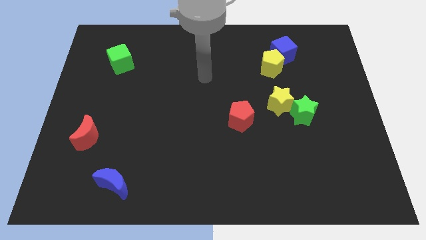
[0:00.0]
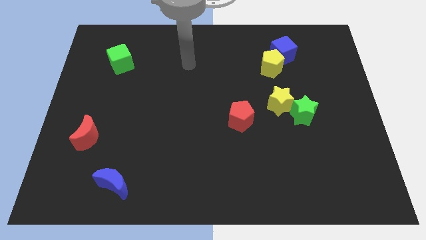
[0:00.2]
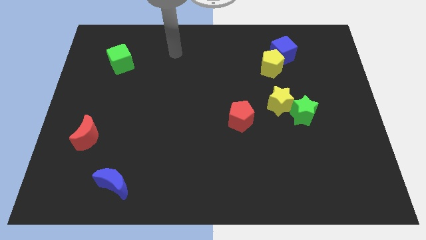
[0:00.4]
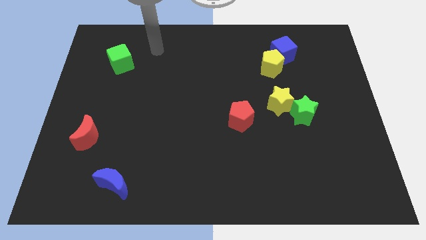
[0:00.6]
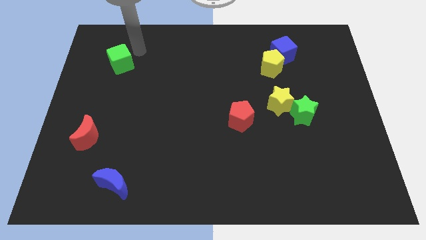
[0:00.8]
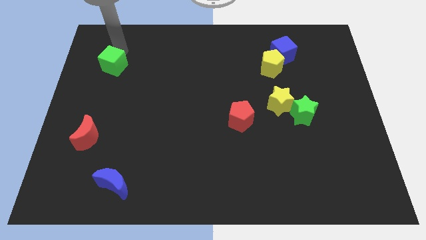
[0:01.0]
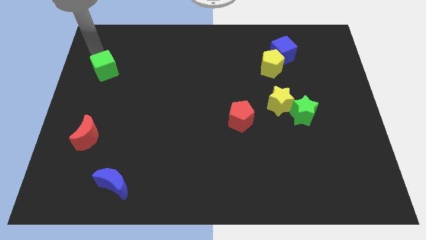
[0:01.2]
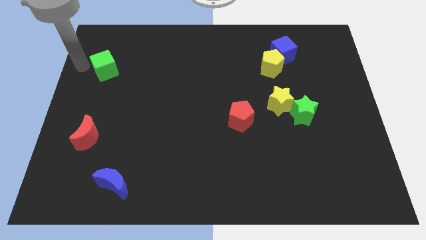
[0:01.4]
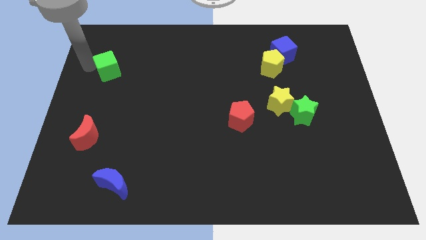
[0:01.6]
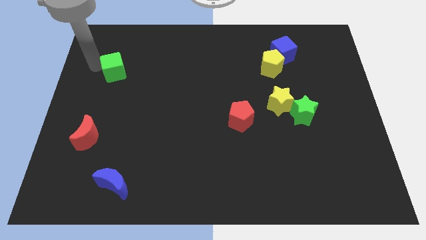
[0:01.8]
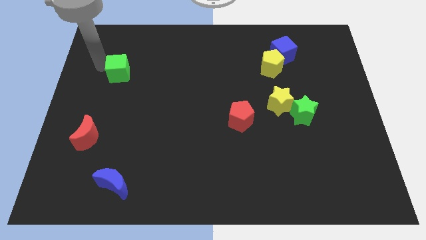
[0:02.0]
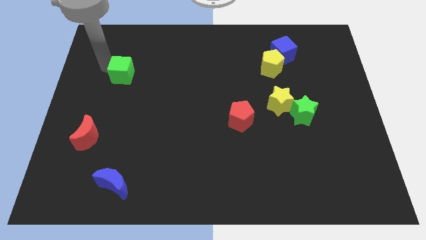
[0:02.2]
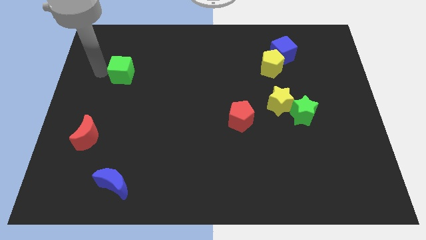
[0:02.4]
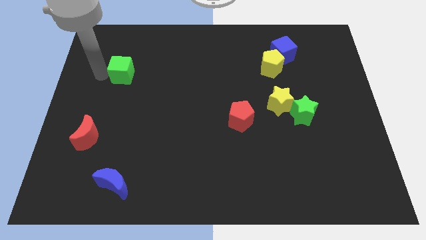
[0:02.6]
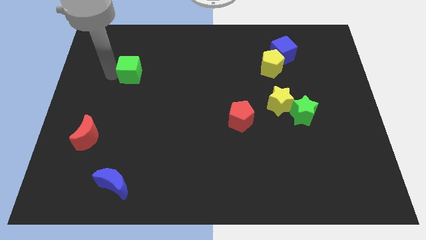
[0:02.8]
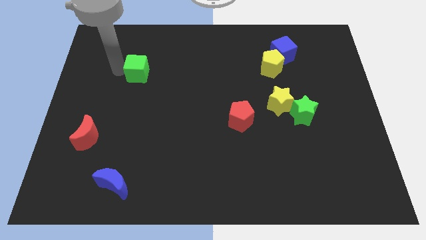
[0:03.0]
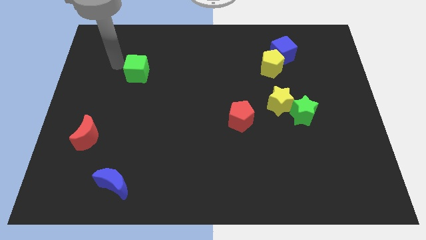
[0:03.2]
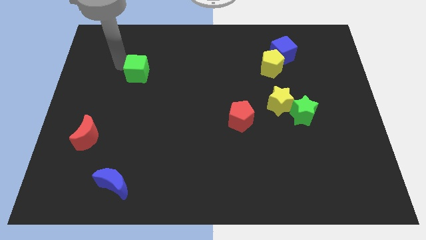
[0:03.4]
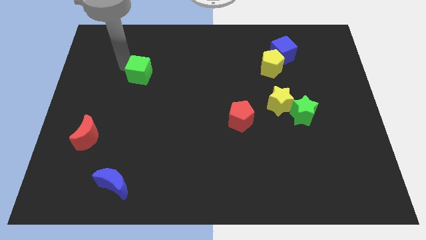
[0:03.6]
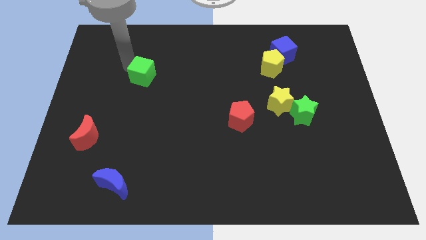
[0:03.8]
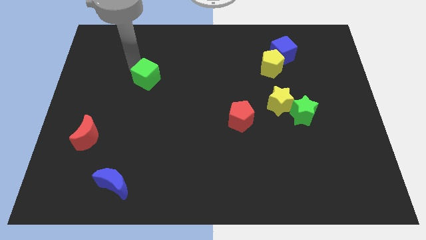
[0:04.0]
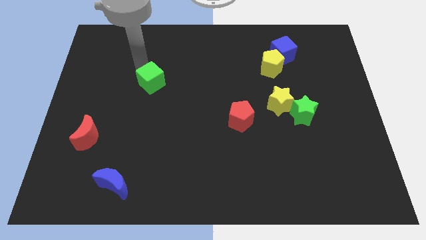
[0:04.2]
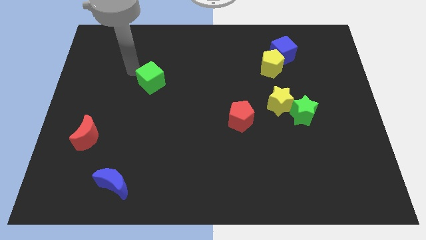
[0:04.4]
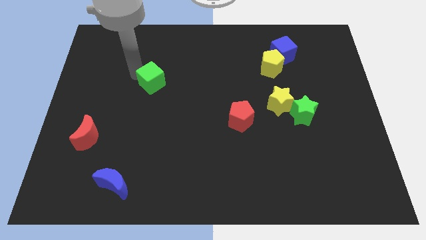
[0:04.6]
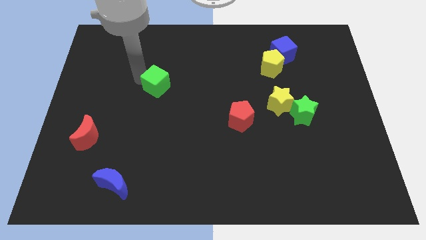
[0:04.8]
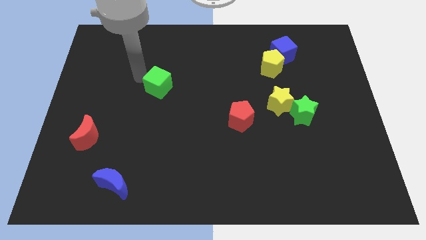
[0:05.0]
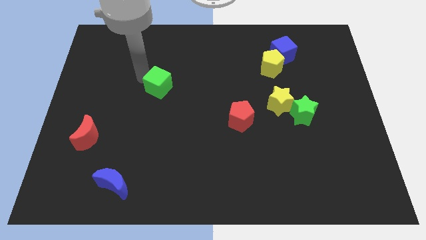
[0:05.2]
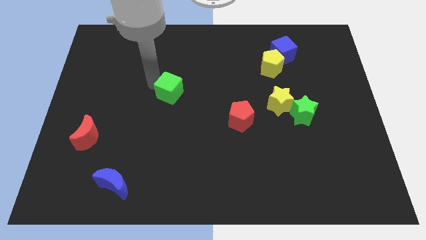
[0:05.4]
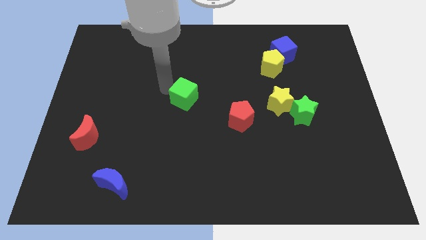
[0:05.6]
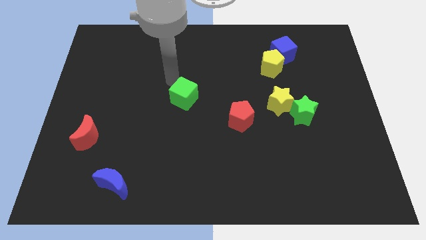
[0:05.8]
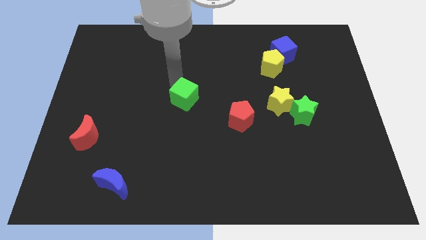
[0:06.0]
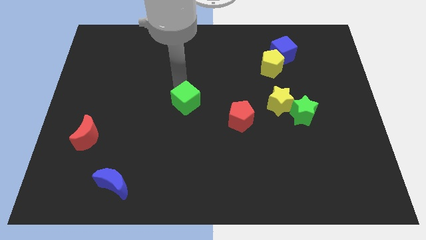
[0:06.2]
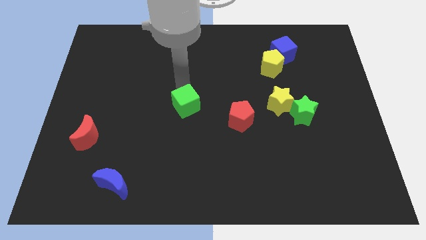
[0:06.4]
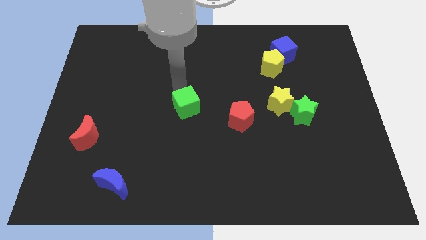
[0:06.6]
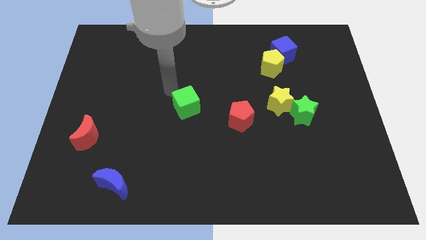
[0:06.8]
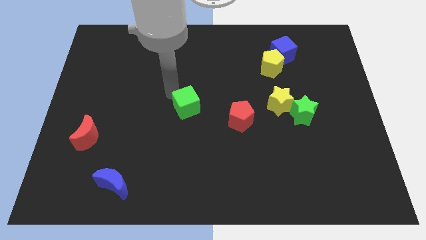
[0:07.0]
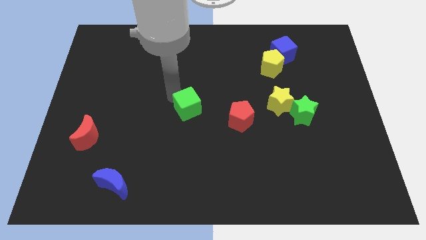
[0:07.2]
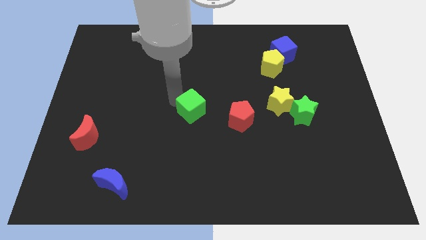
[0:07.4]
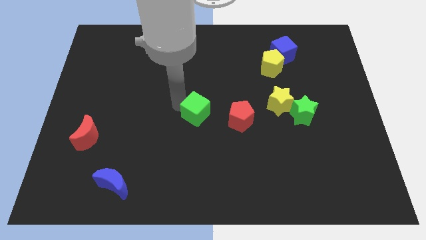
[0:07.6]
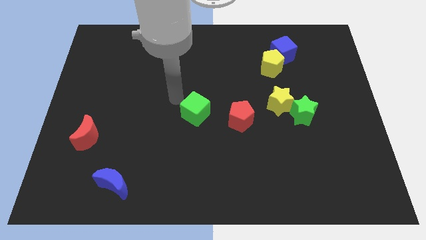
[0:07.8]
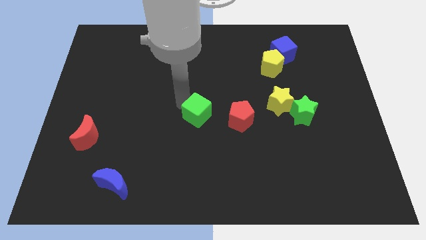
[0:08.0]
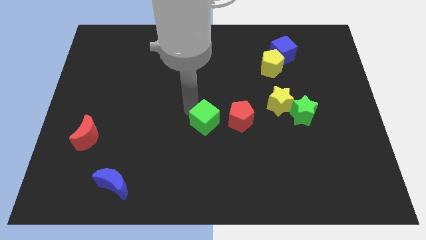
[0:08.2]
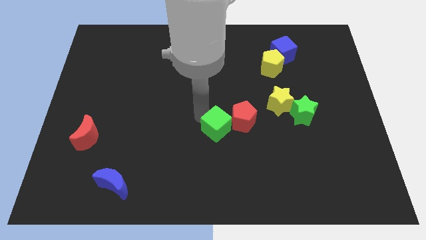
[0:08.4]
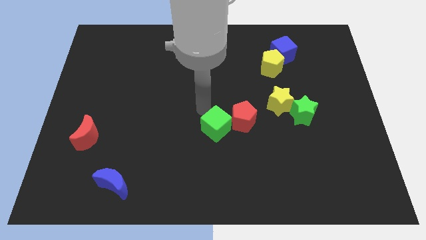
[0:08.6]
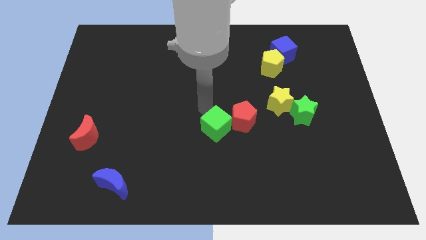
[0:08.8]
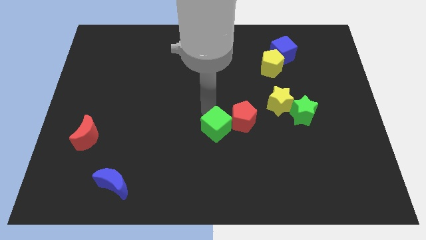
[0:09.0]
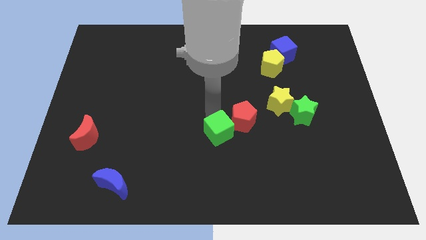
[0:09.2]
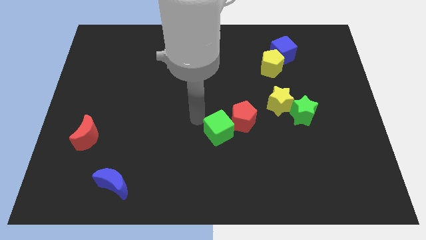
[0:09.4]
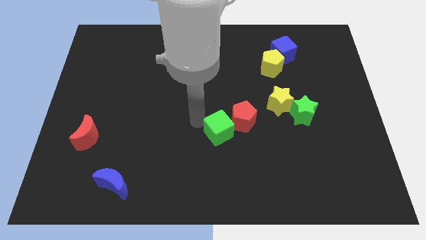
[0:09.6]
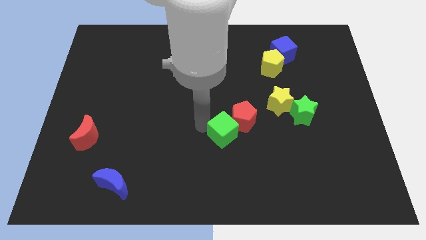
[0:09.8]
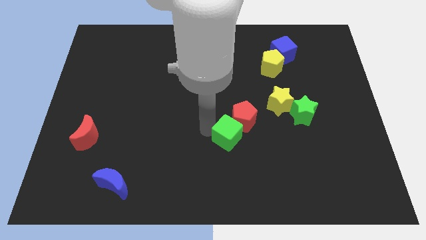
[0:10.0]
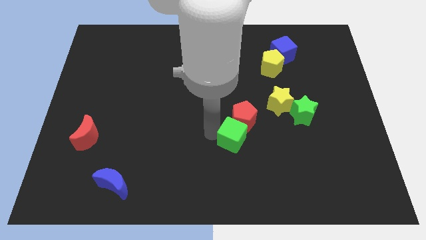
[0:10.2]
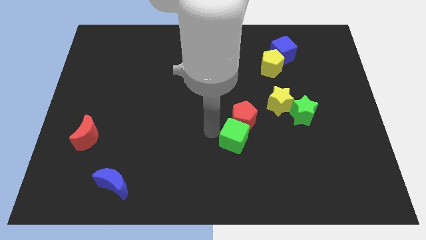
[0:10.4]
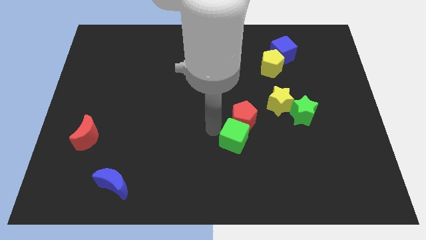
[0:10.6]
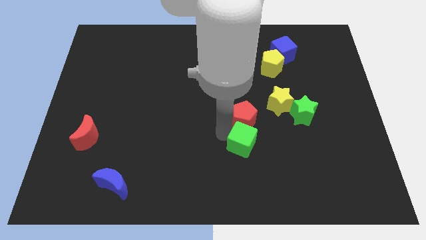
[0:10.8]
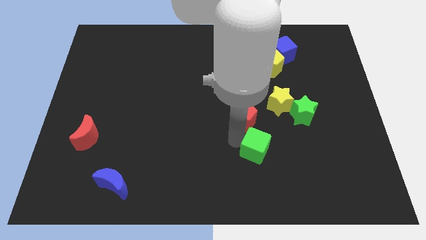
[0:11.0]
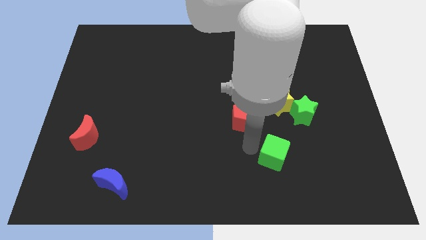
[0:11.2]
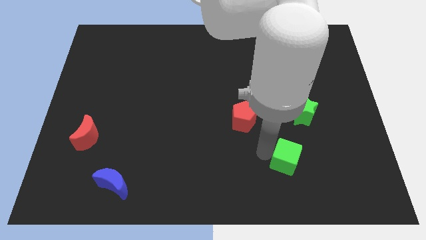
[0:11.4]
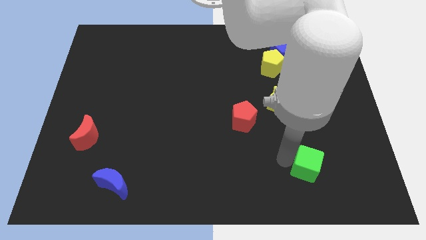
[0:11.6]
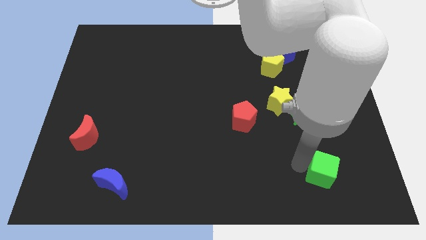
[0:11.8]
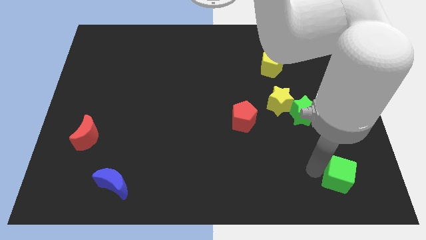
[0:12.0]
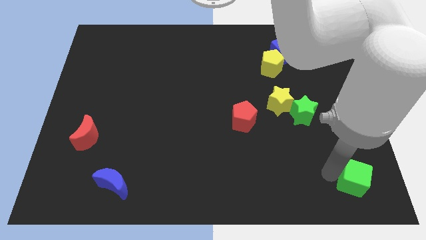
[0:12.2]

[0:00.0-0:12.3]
push the green cube to the lower right corner
